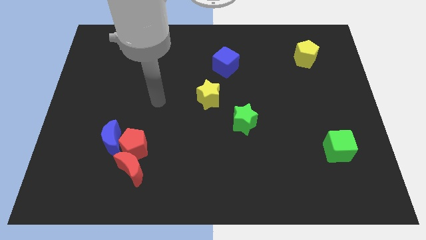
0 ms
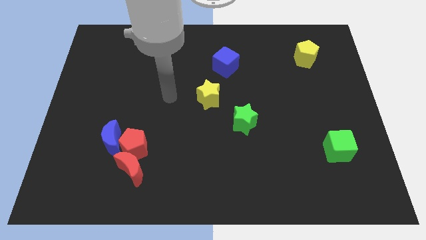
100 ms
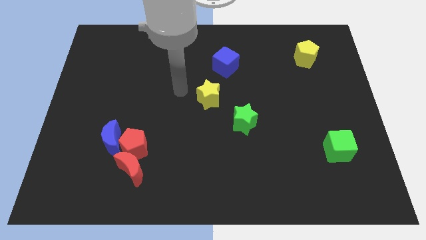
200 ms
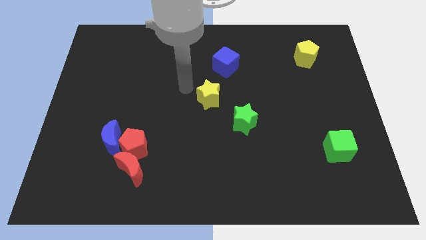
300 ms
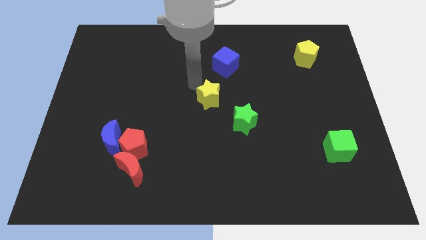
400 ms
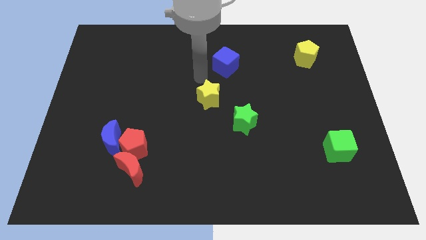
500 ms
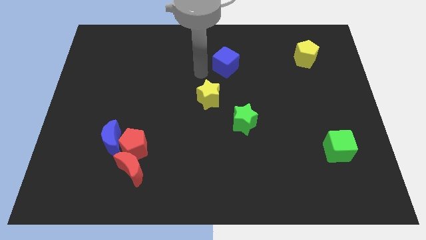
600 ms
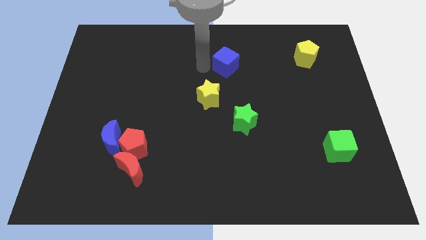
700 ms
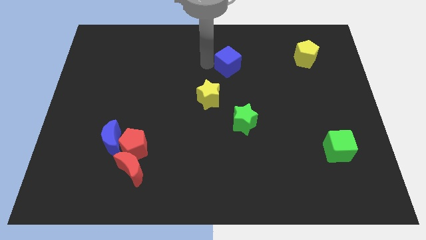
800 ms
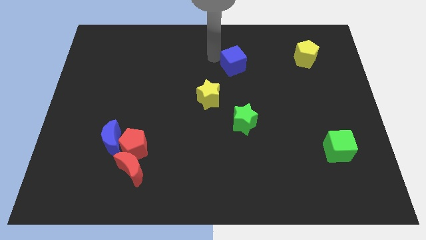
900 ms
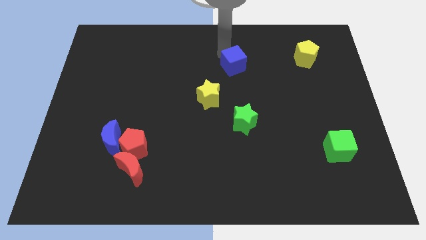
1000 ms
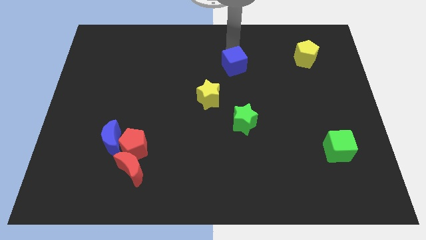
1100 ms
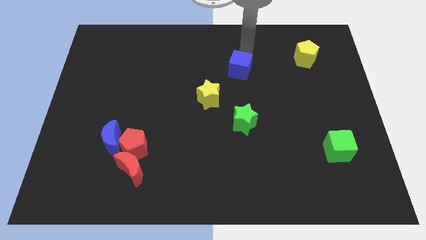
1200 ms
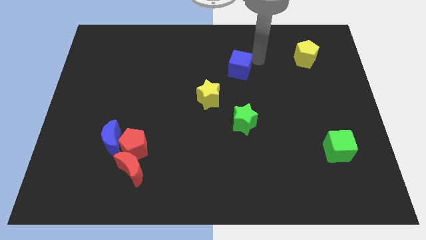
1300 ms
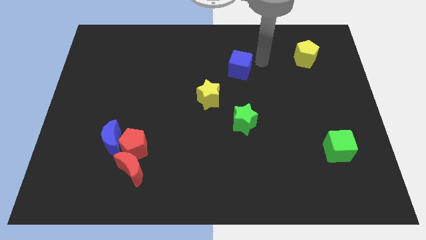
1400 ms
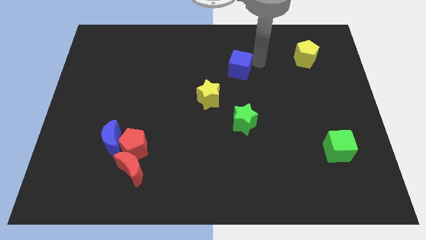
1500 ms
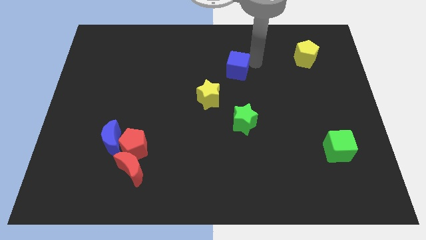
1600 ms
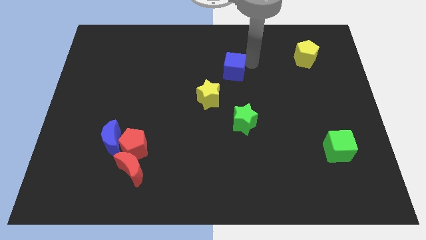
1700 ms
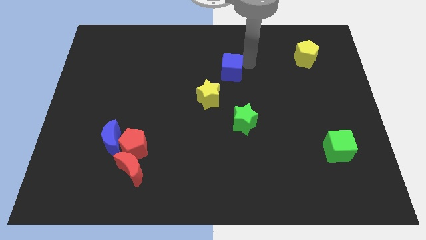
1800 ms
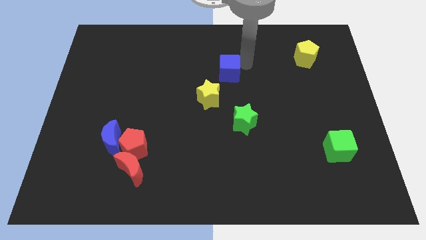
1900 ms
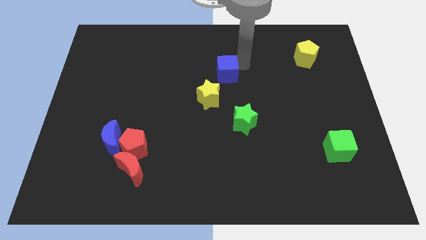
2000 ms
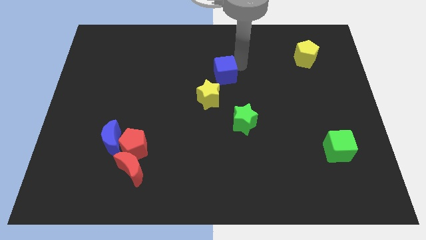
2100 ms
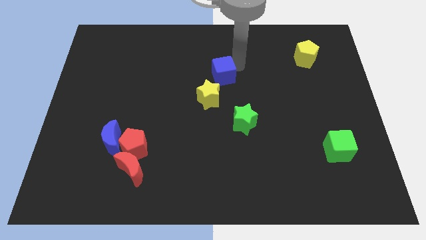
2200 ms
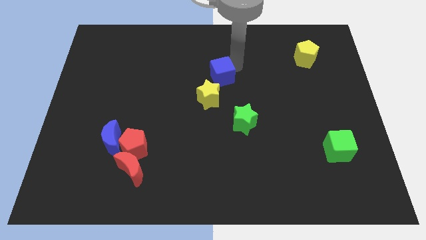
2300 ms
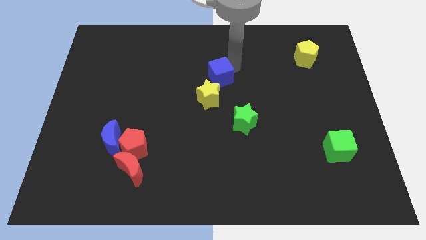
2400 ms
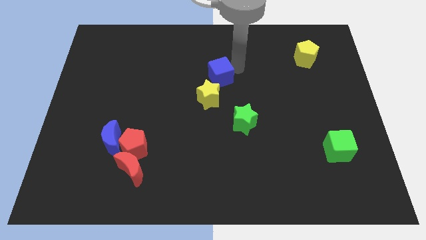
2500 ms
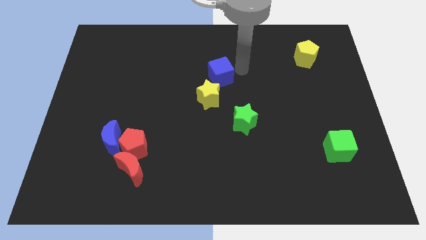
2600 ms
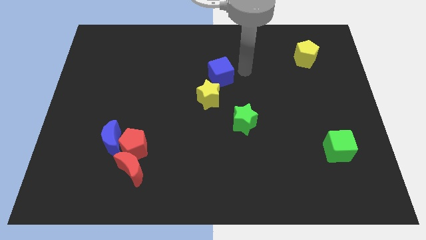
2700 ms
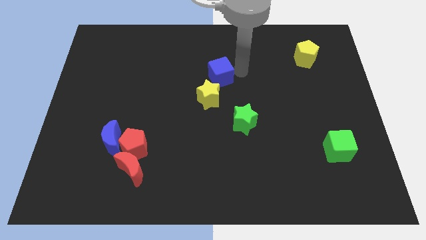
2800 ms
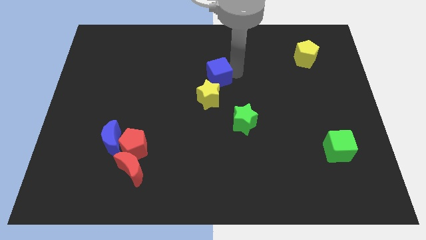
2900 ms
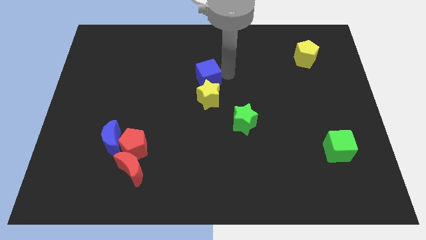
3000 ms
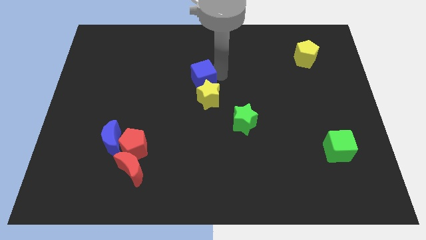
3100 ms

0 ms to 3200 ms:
slide the blue cube downwards and then left a bit

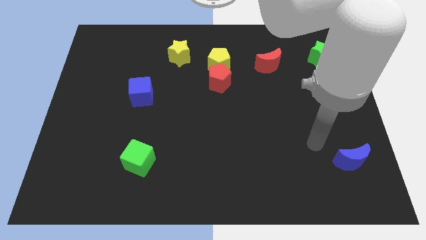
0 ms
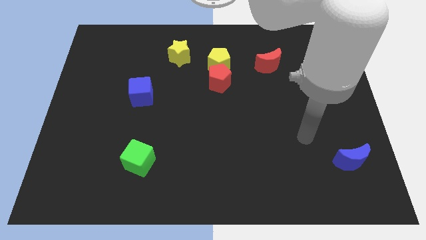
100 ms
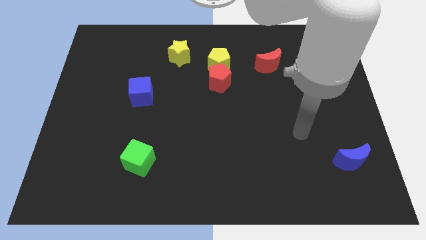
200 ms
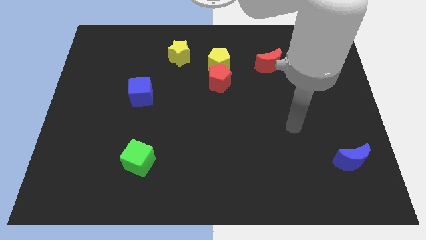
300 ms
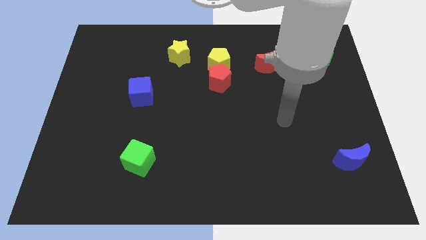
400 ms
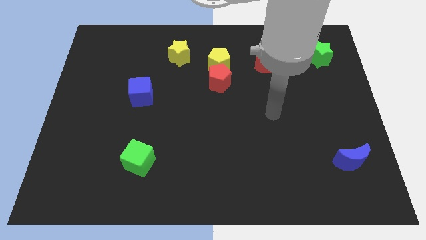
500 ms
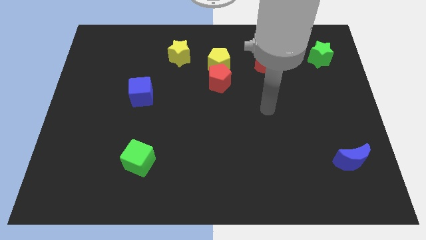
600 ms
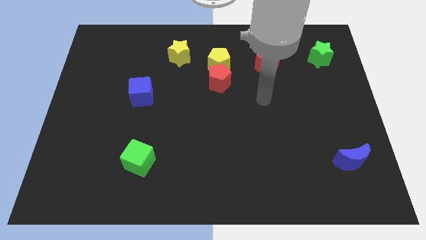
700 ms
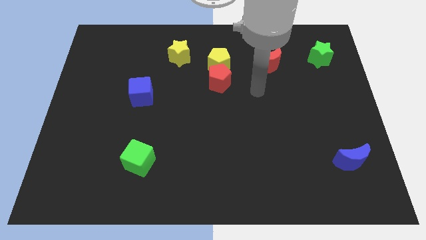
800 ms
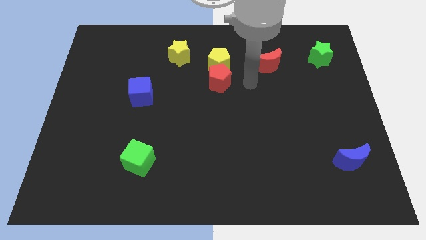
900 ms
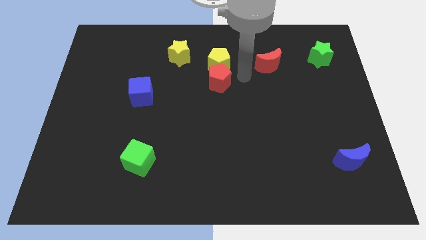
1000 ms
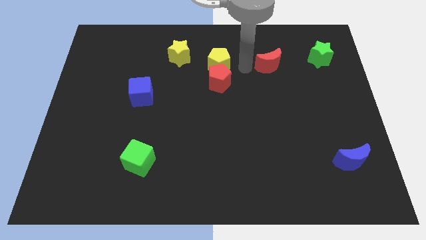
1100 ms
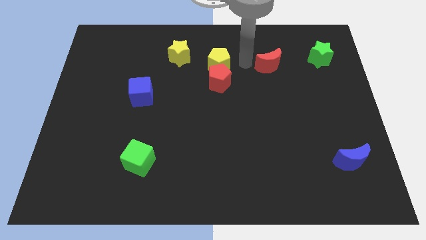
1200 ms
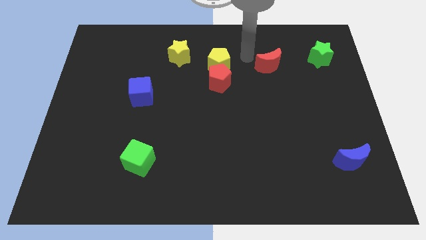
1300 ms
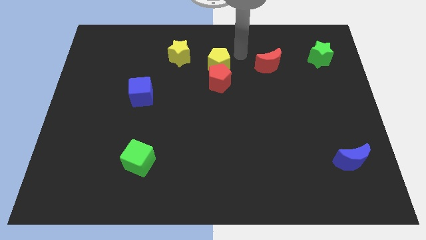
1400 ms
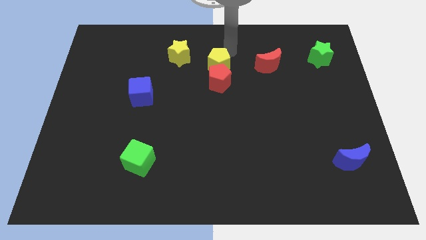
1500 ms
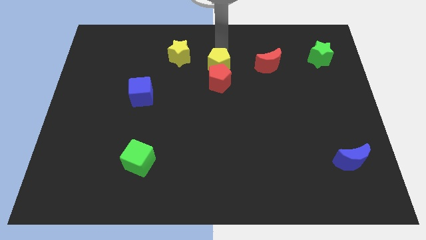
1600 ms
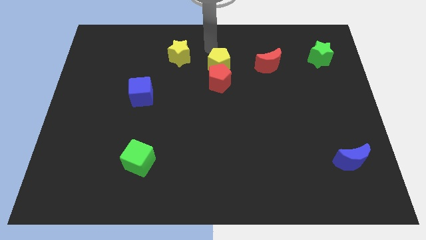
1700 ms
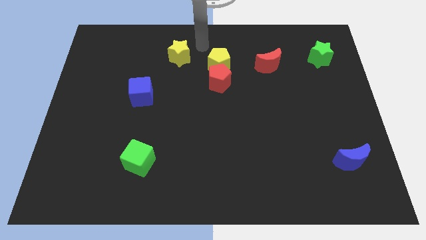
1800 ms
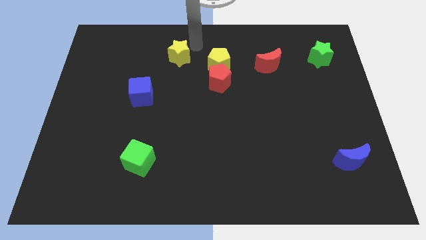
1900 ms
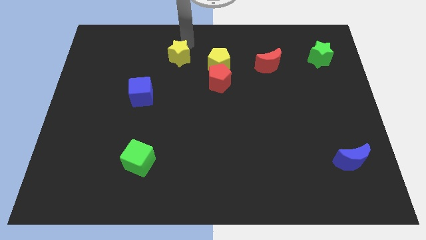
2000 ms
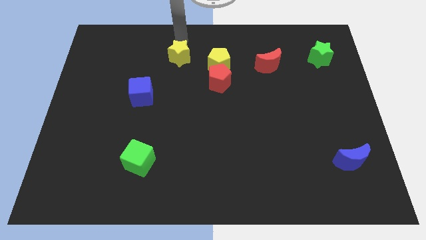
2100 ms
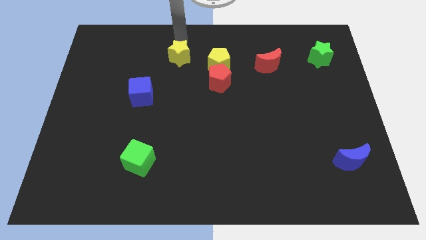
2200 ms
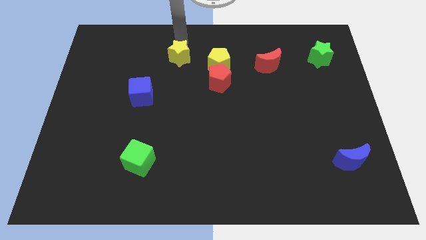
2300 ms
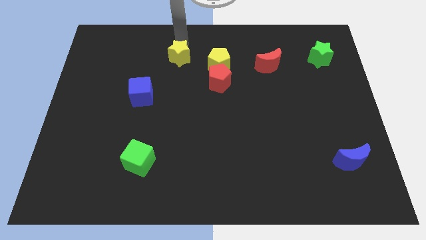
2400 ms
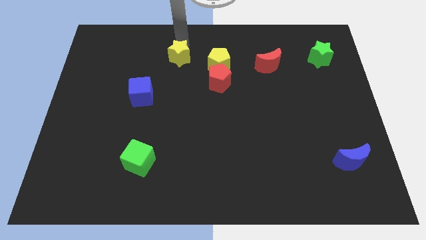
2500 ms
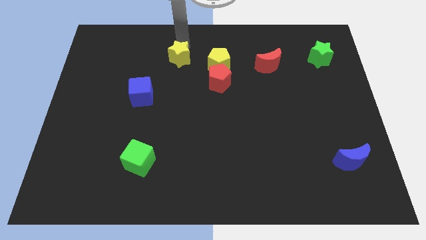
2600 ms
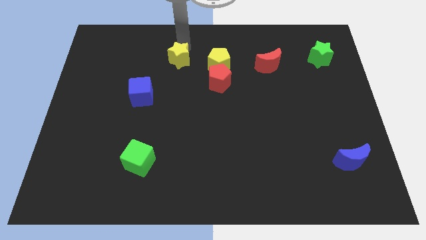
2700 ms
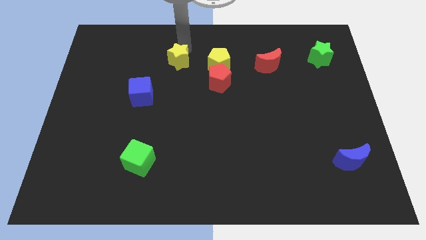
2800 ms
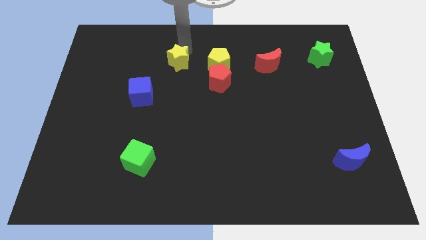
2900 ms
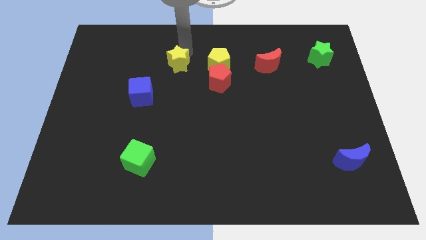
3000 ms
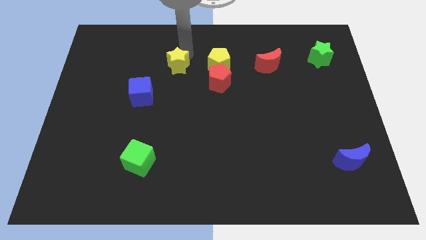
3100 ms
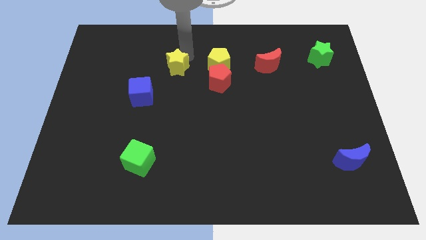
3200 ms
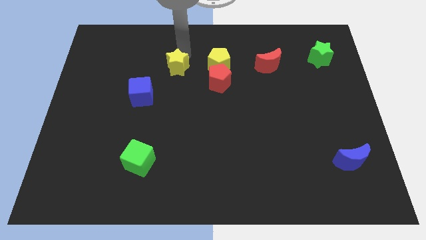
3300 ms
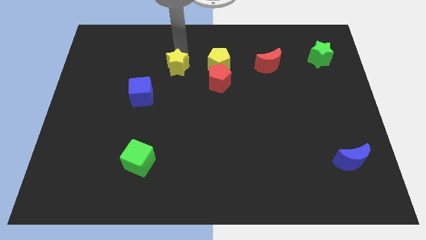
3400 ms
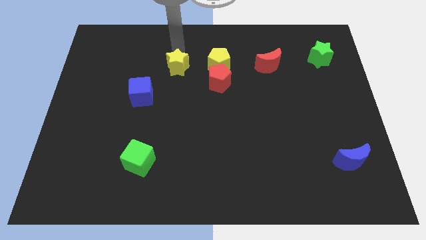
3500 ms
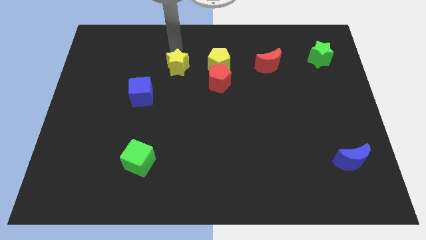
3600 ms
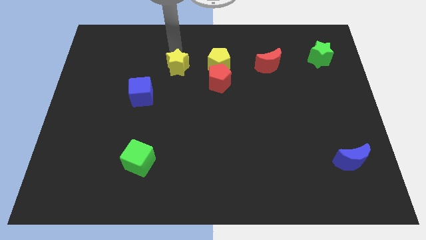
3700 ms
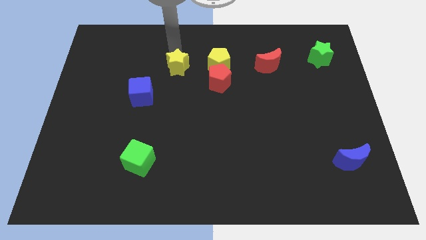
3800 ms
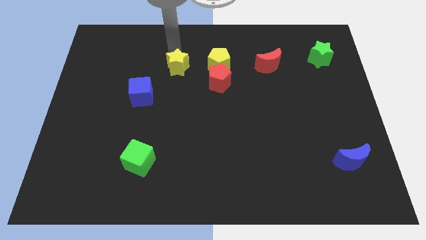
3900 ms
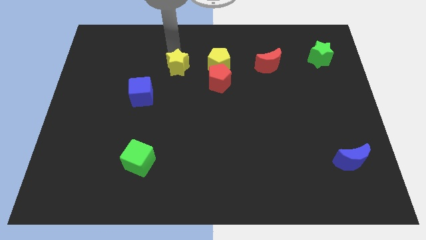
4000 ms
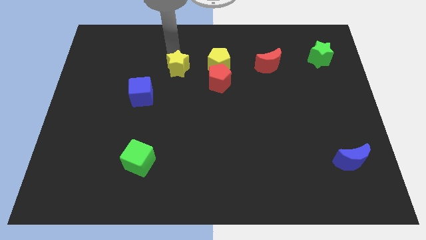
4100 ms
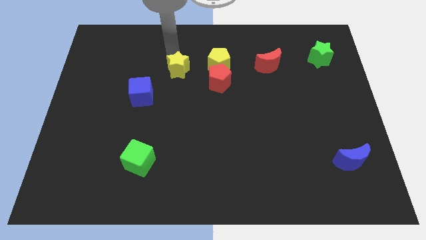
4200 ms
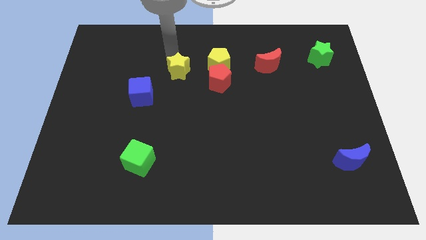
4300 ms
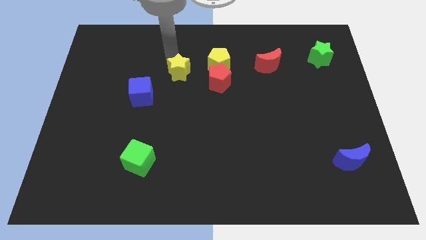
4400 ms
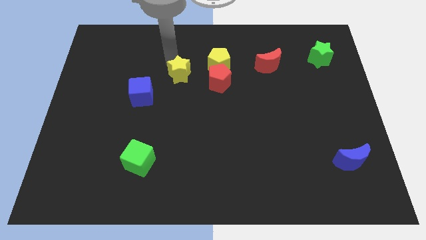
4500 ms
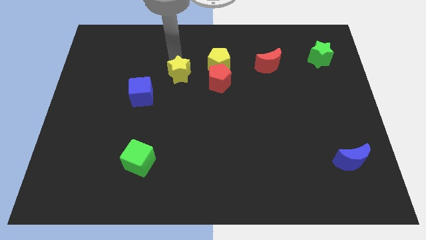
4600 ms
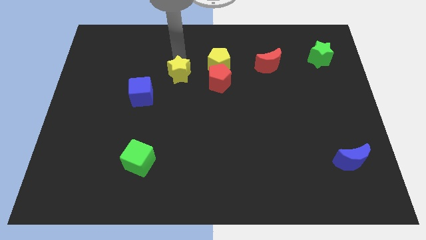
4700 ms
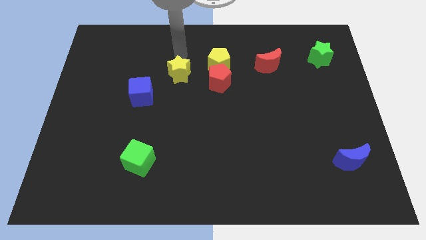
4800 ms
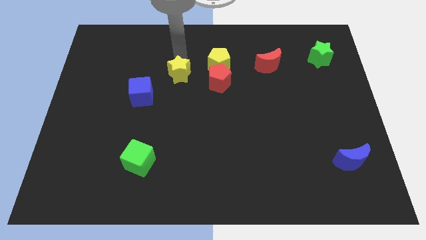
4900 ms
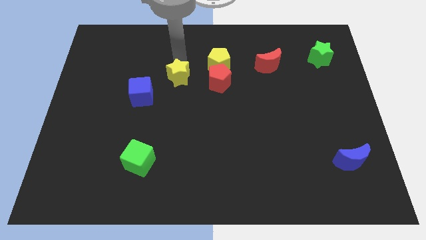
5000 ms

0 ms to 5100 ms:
move the yellow star down somewhat

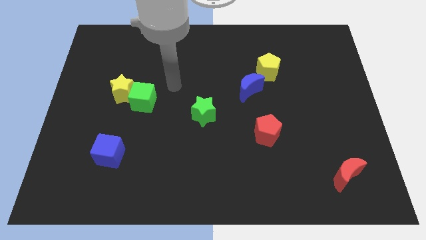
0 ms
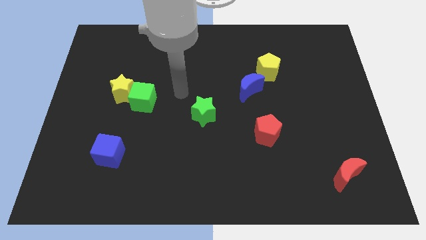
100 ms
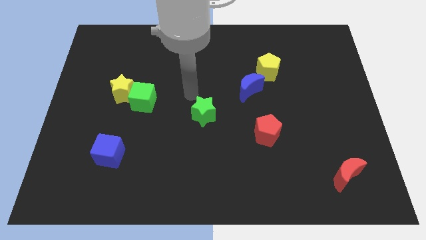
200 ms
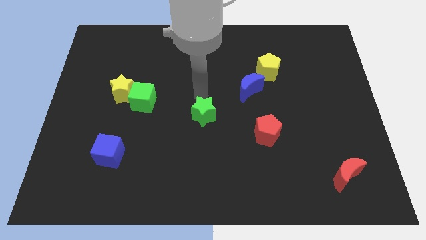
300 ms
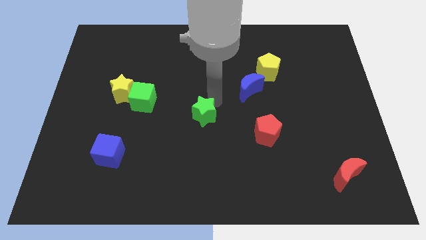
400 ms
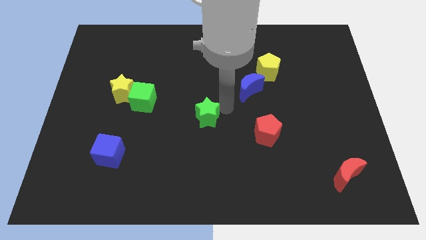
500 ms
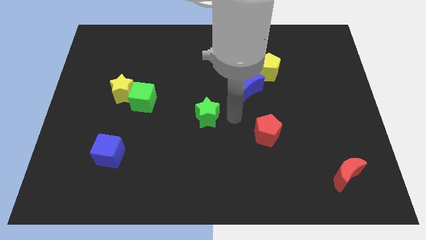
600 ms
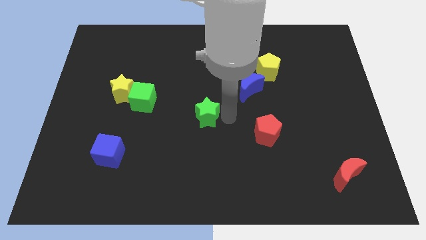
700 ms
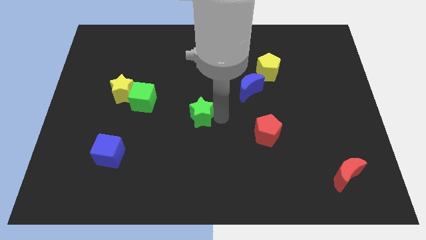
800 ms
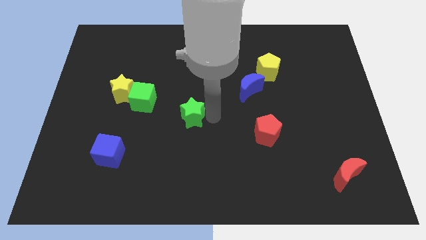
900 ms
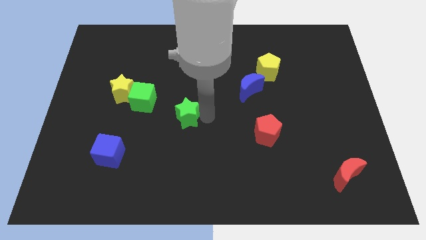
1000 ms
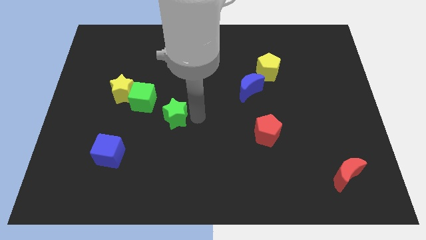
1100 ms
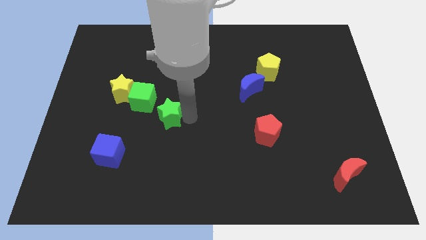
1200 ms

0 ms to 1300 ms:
slightly move the green star to the left
